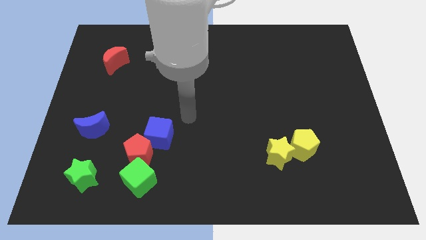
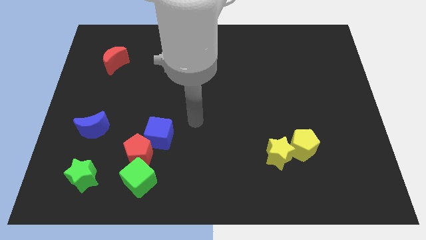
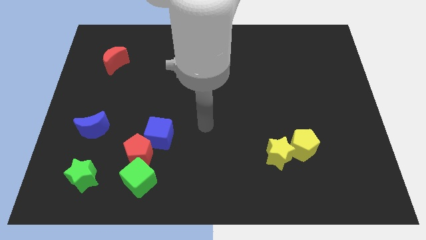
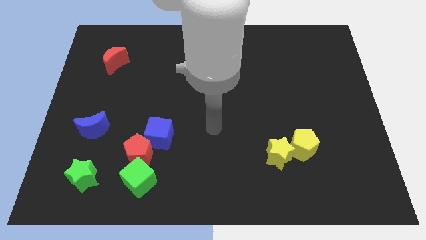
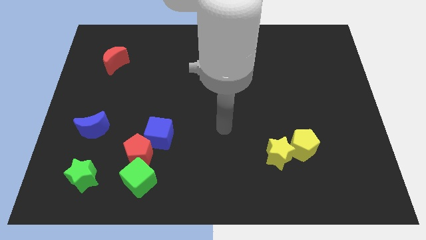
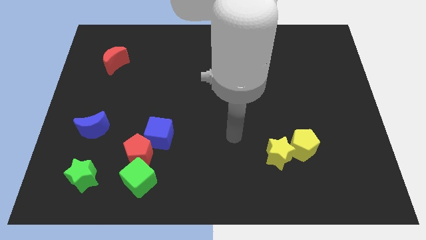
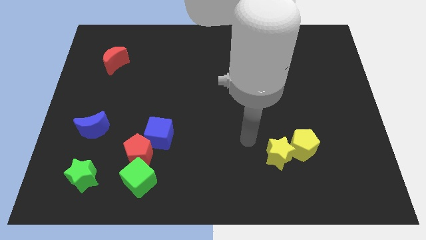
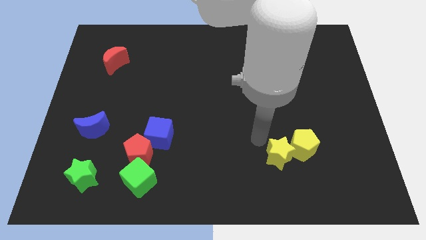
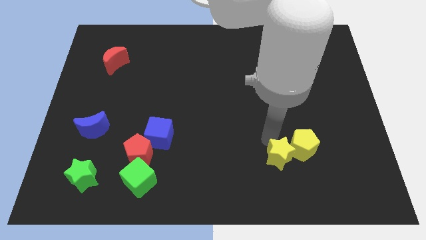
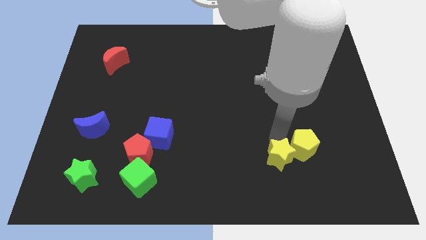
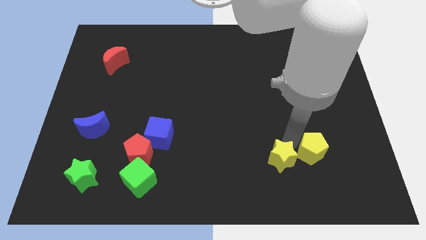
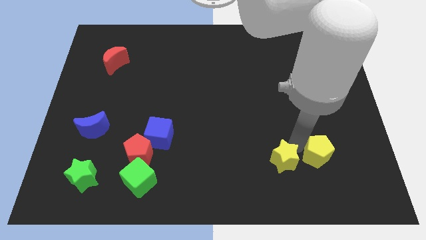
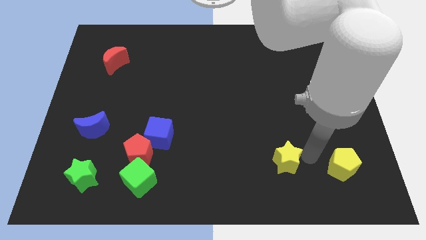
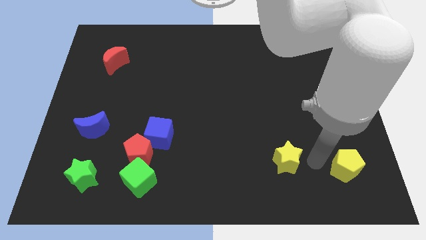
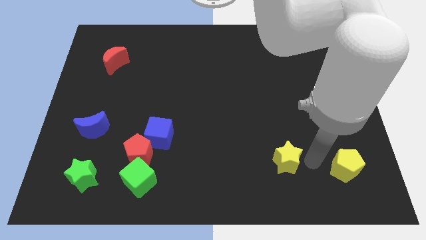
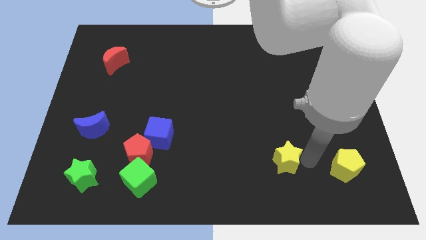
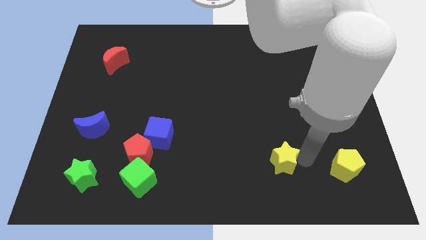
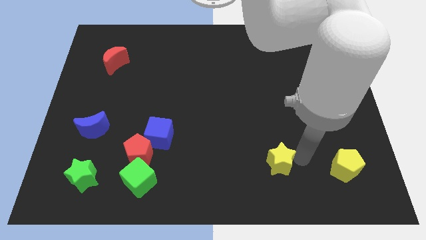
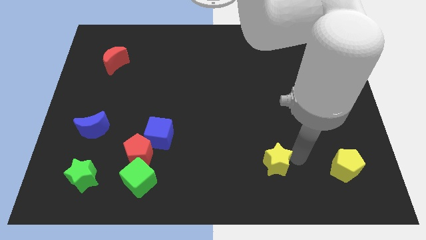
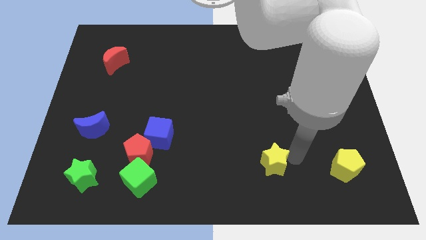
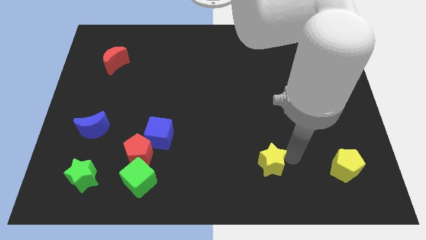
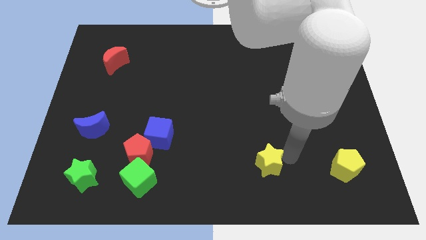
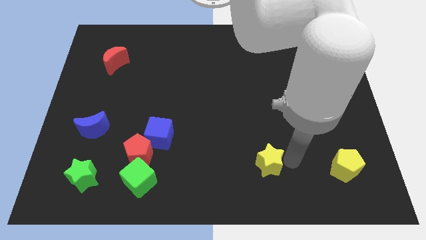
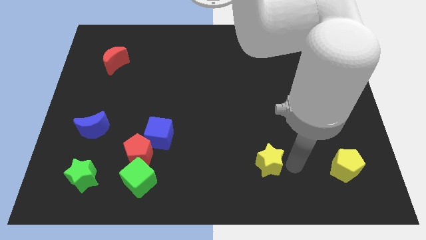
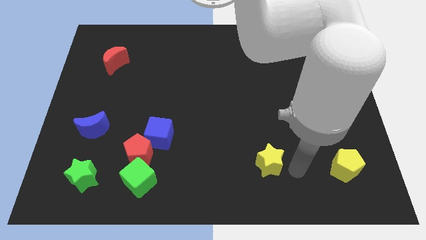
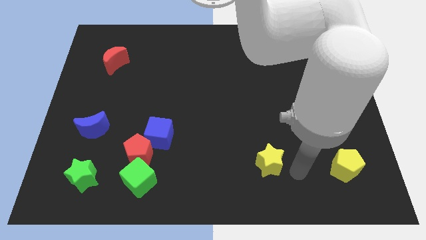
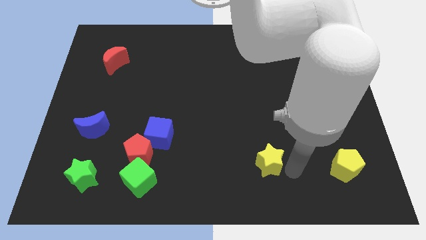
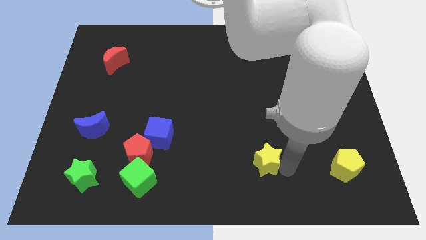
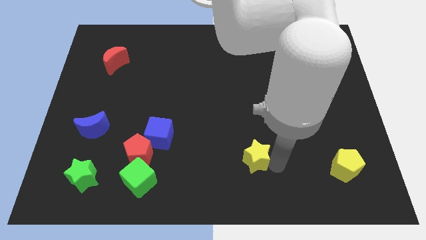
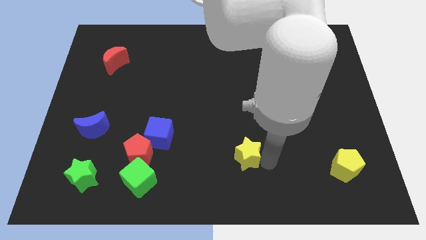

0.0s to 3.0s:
push the yellow star to the left somewhat

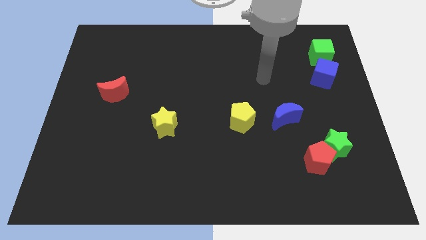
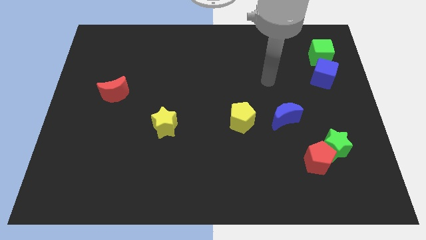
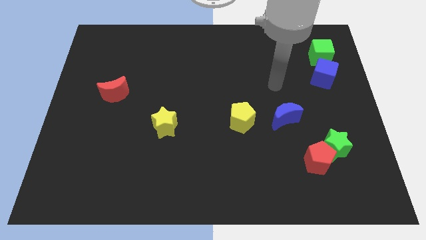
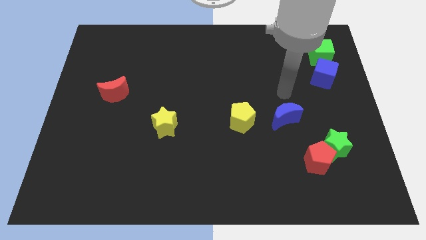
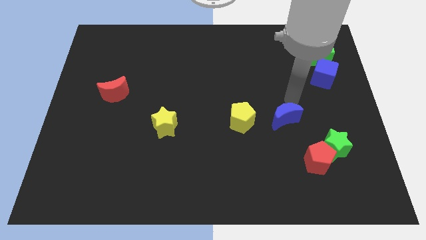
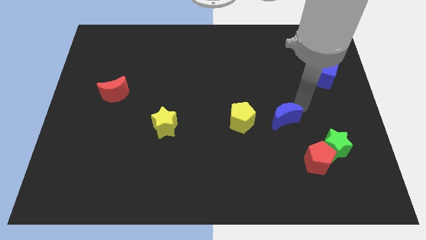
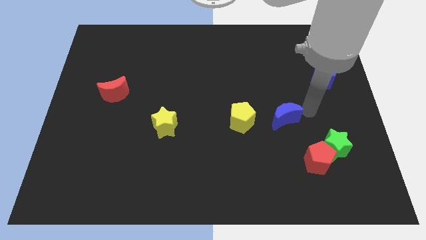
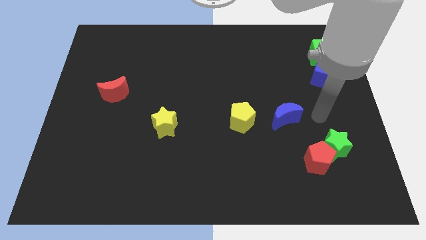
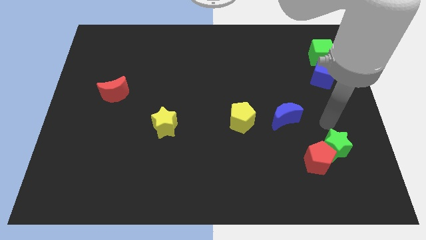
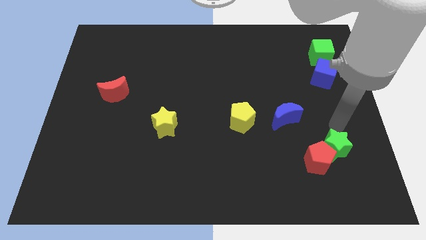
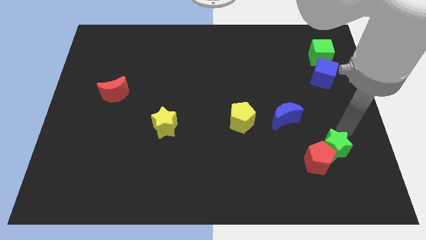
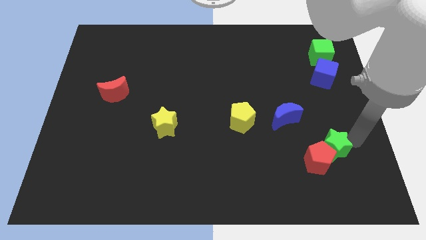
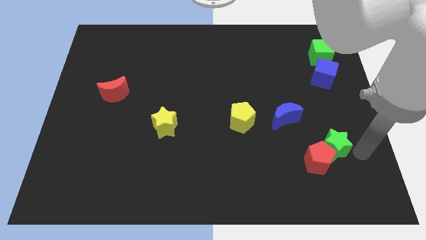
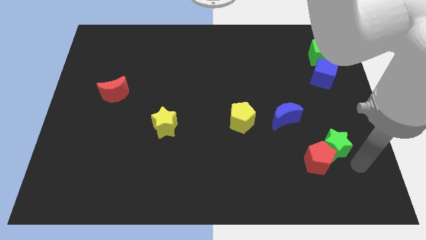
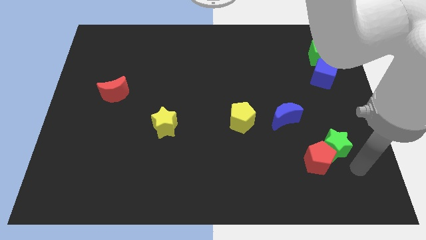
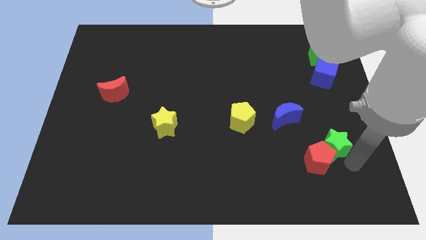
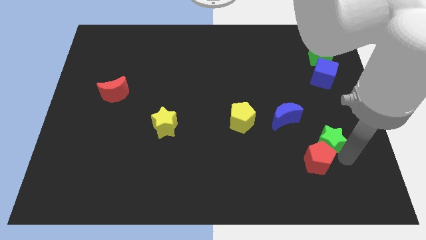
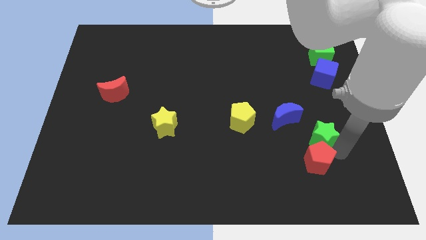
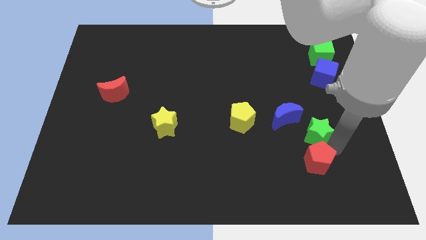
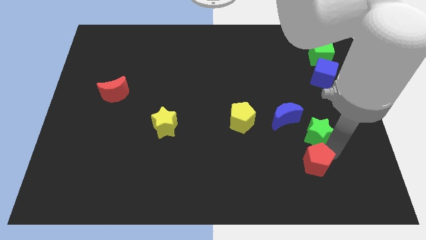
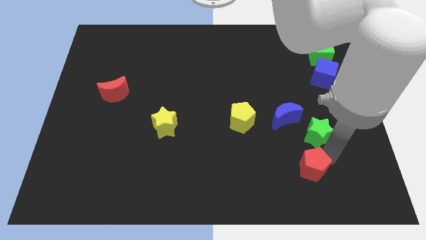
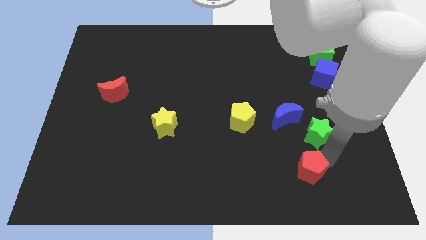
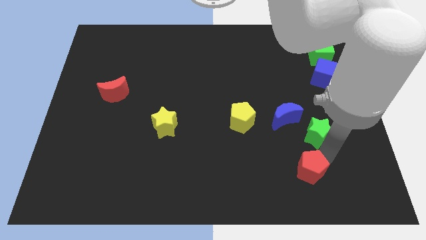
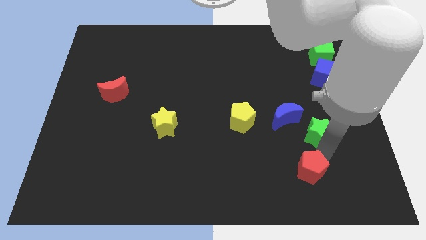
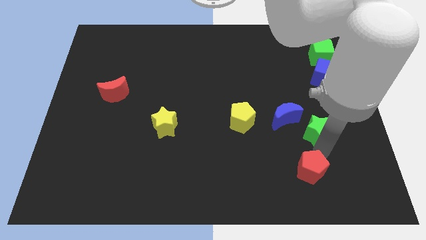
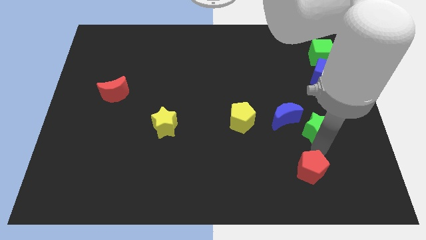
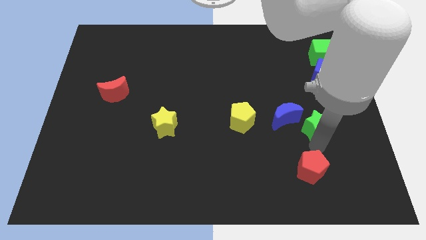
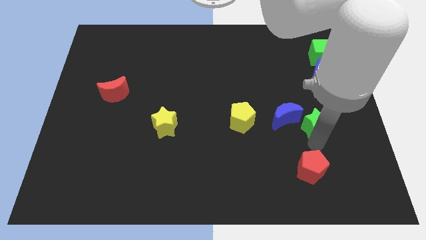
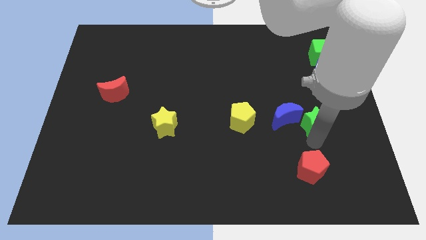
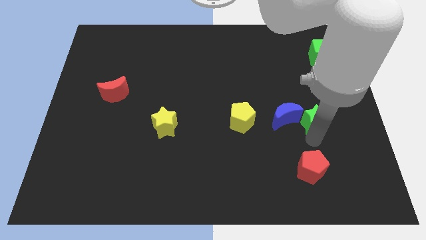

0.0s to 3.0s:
move the green star upwards and to the left a little

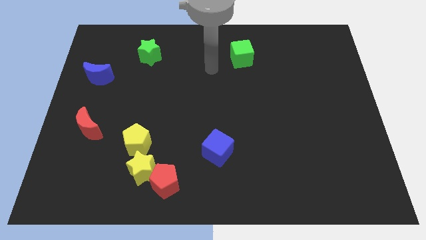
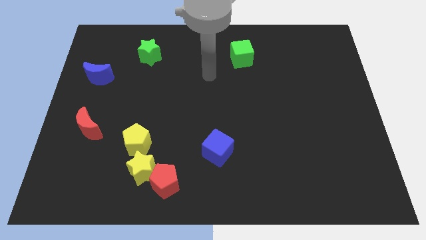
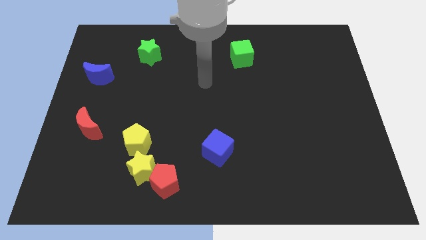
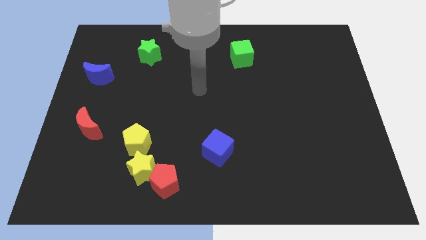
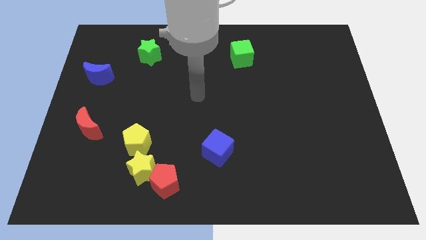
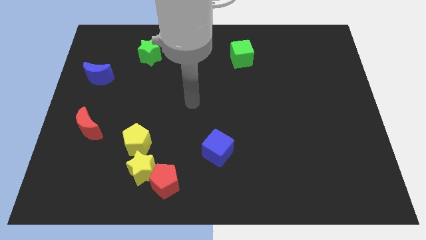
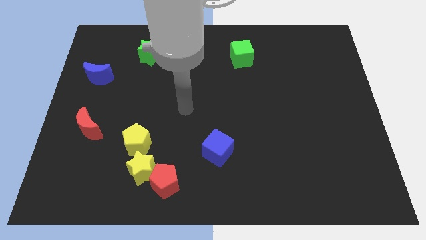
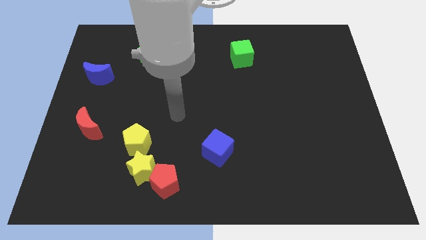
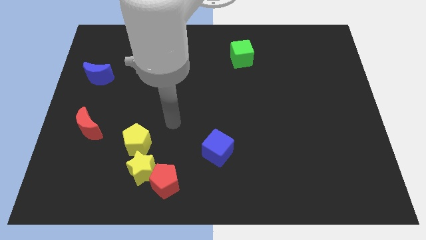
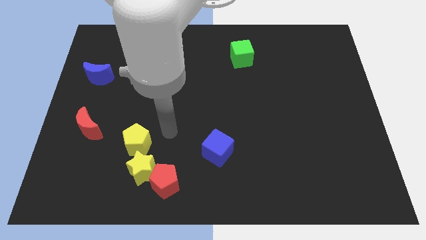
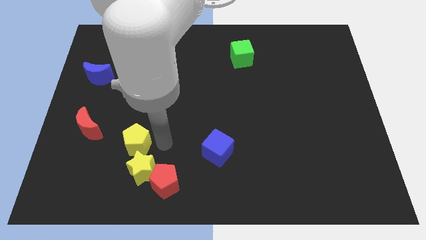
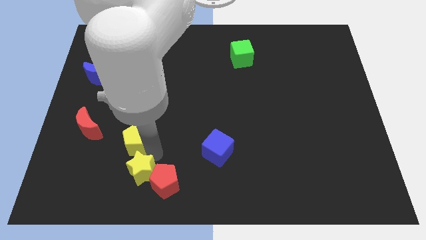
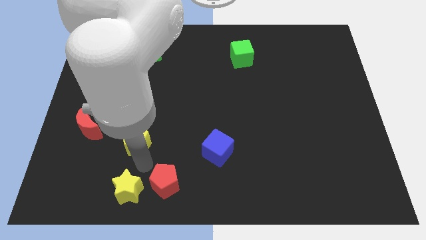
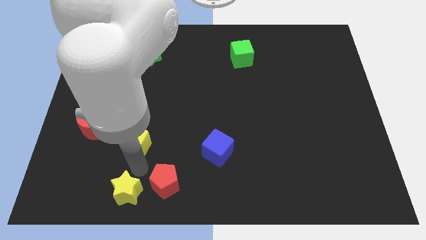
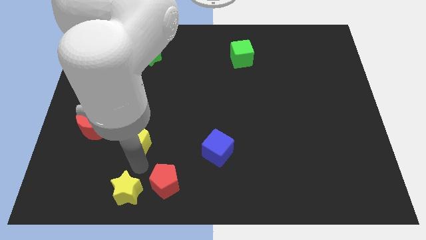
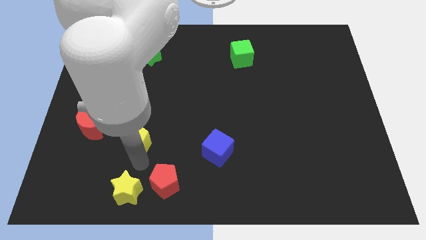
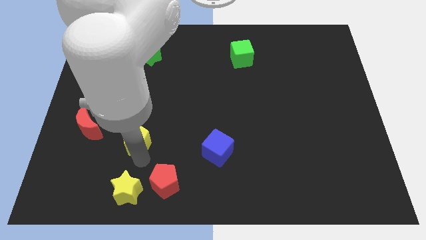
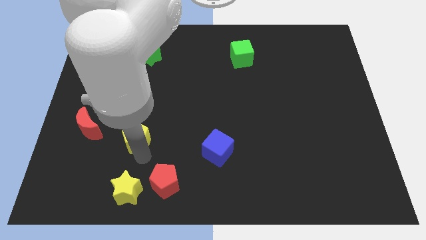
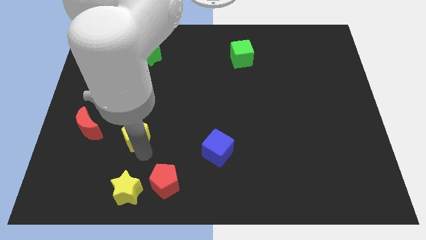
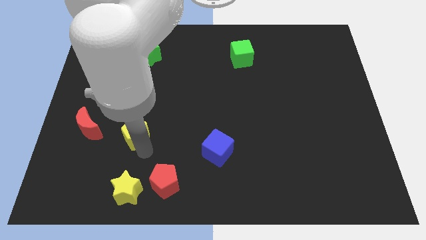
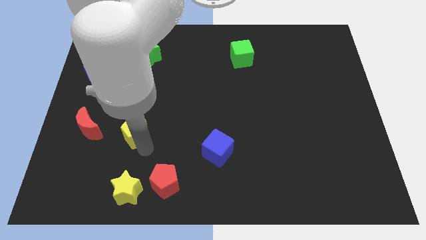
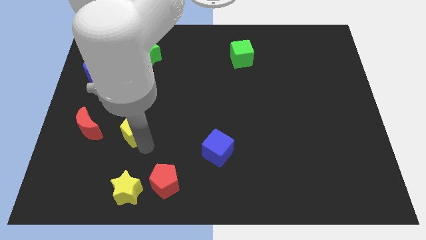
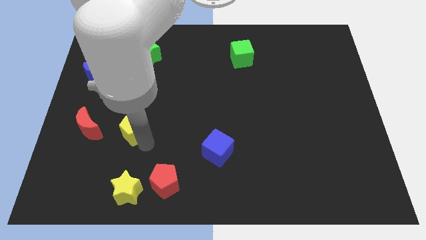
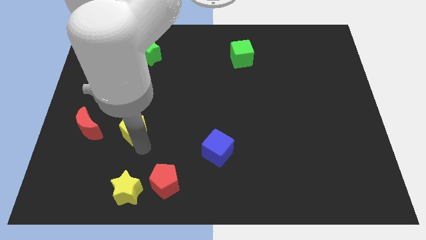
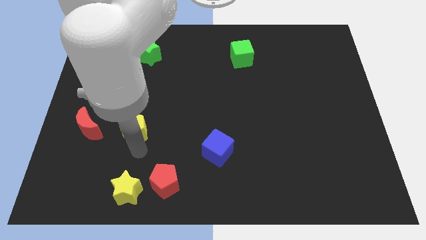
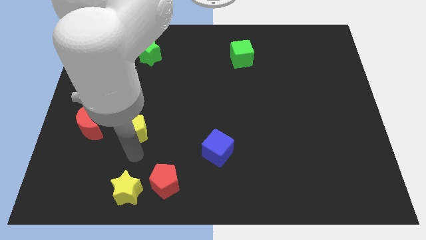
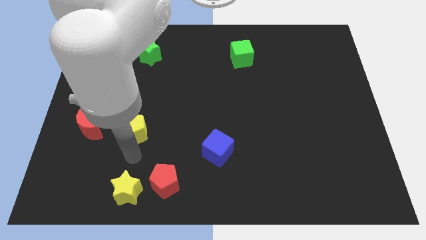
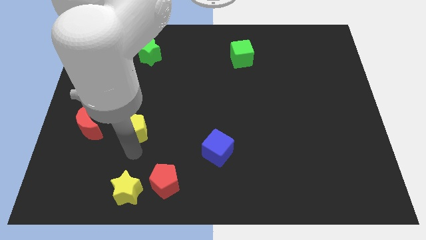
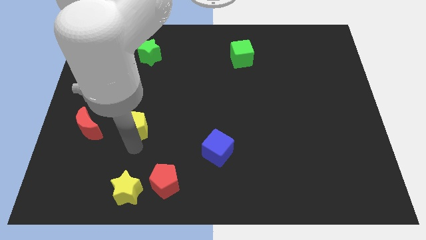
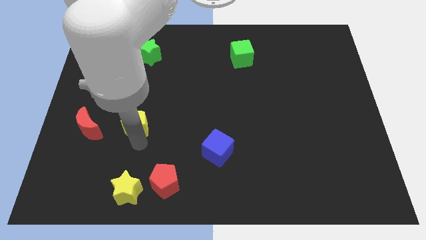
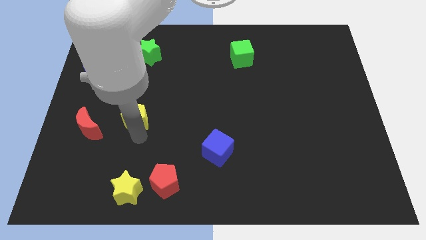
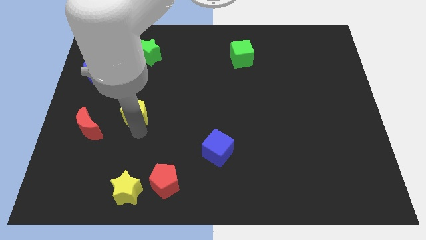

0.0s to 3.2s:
slightly move the yellow pentagon upwards
